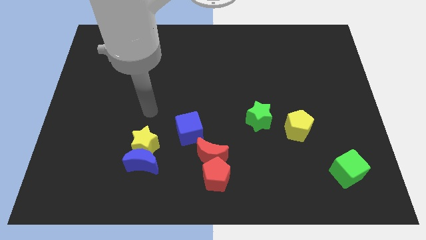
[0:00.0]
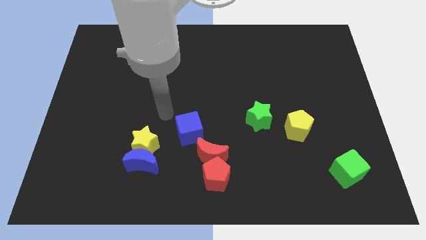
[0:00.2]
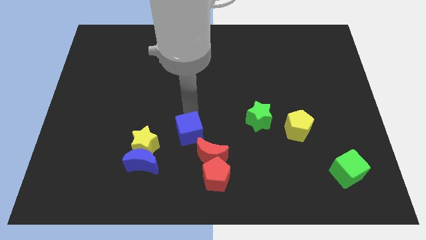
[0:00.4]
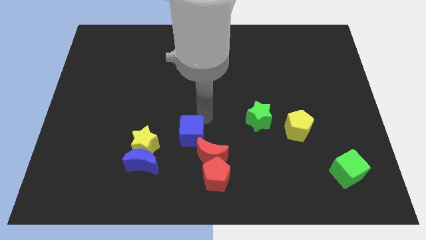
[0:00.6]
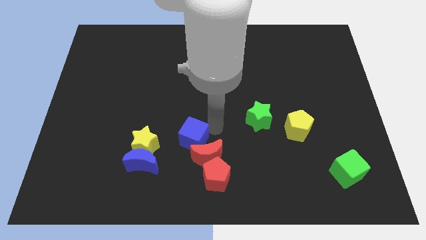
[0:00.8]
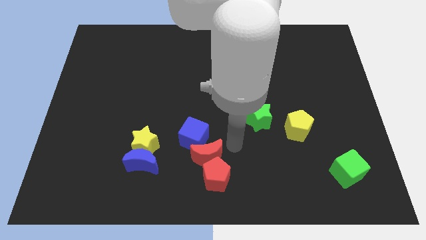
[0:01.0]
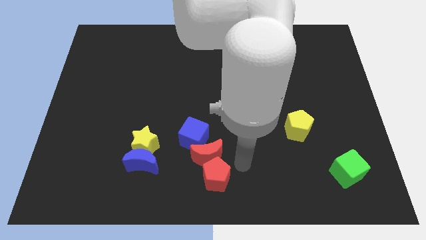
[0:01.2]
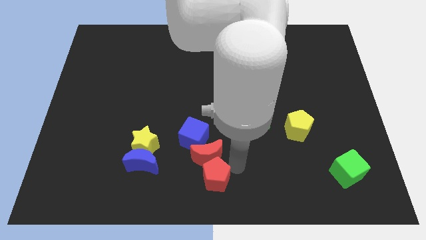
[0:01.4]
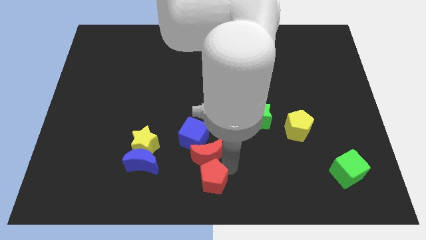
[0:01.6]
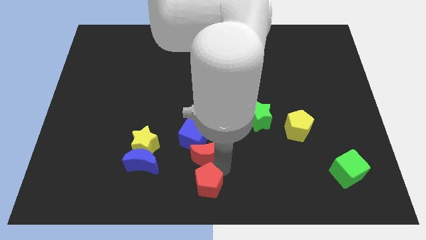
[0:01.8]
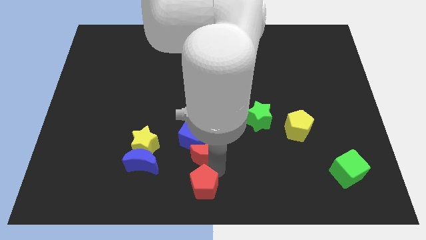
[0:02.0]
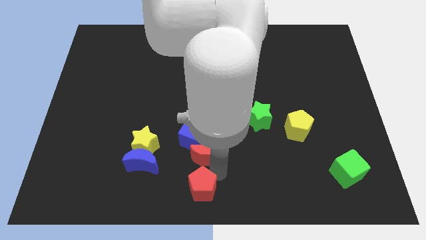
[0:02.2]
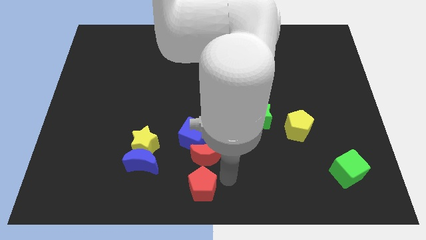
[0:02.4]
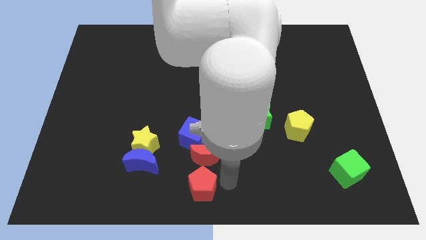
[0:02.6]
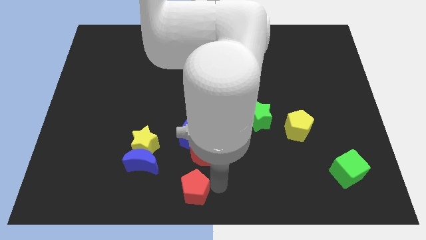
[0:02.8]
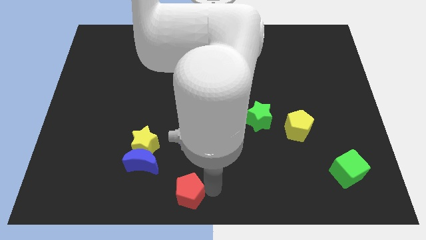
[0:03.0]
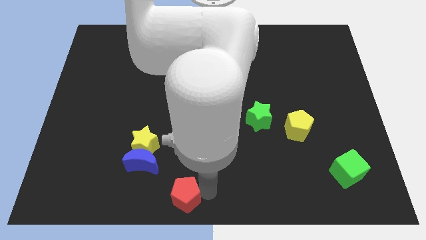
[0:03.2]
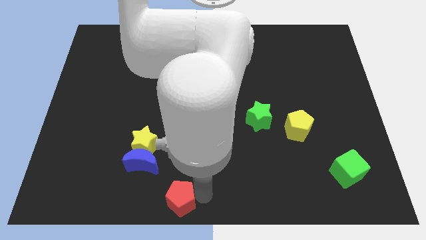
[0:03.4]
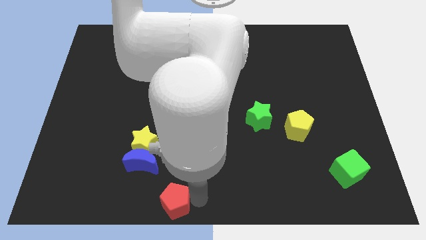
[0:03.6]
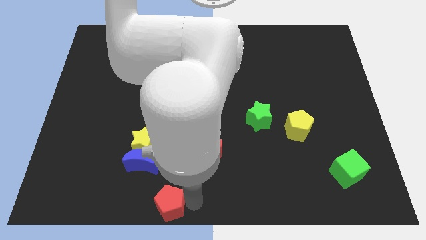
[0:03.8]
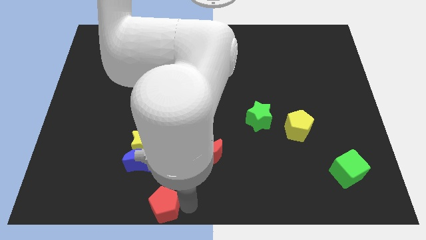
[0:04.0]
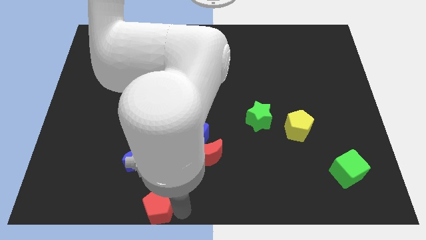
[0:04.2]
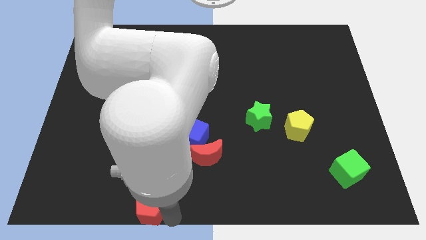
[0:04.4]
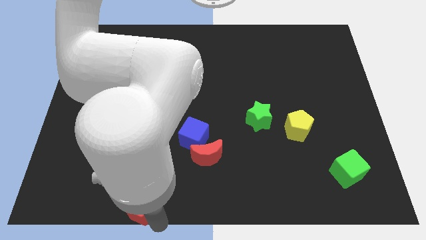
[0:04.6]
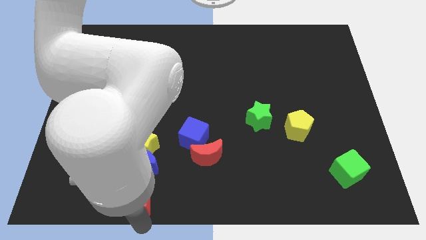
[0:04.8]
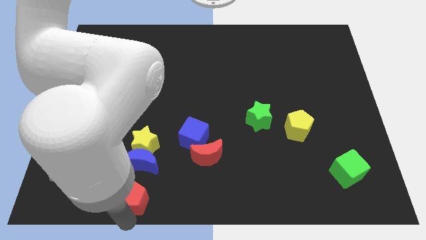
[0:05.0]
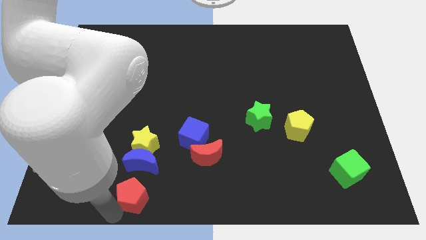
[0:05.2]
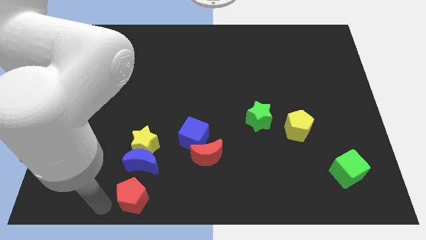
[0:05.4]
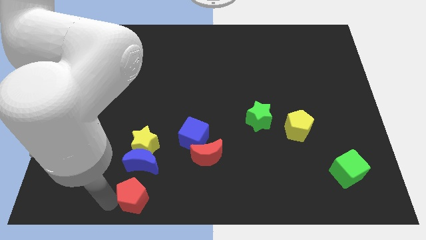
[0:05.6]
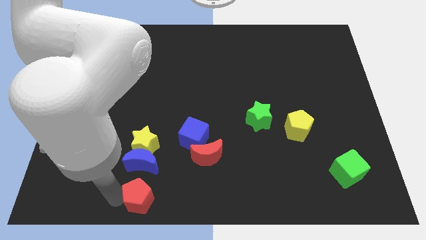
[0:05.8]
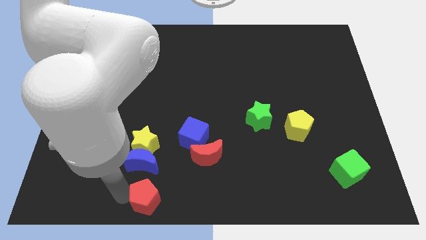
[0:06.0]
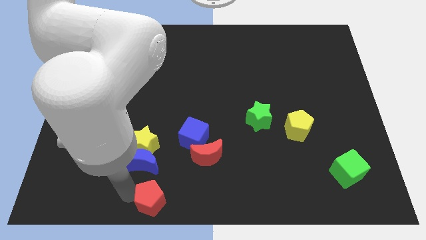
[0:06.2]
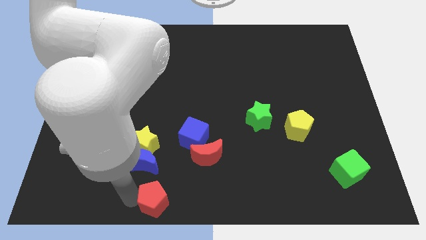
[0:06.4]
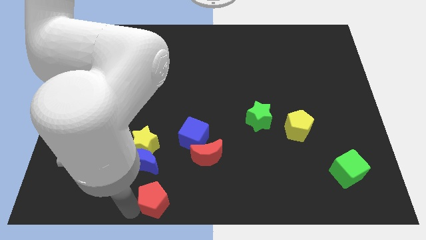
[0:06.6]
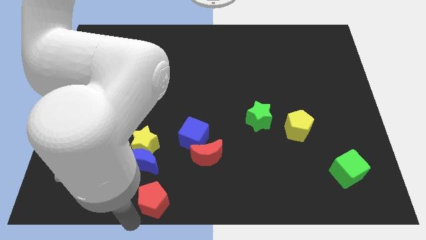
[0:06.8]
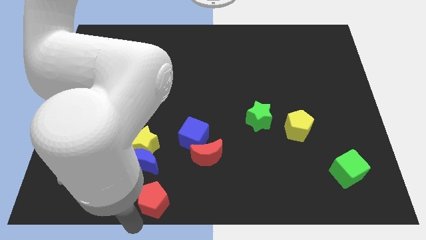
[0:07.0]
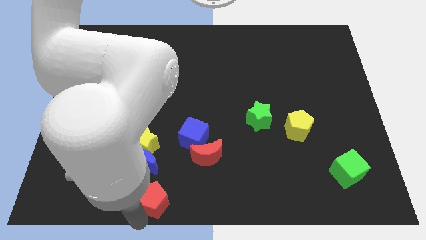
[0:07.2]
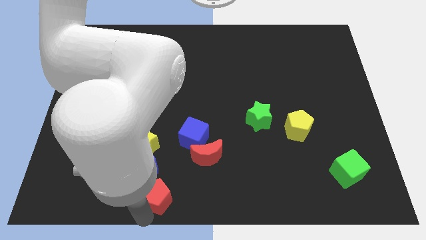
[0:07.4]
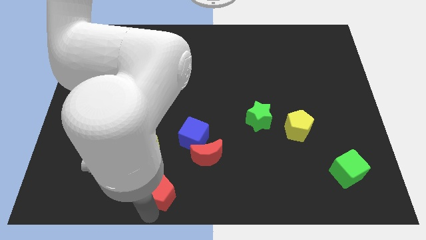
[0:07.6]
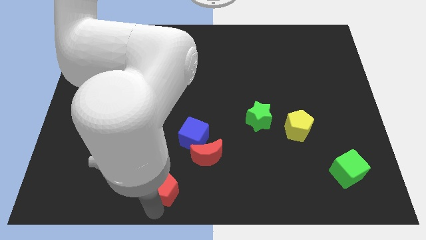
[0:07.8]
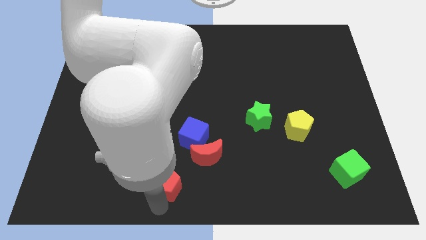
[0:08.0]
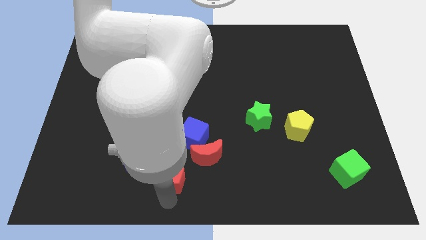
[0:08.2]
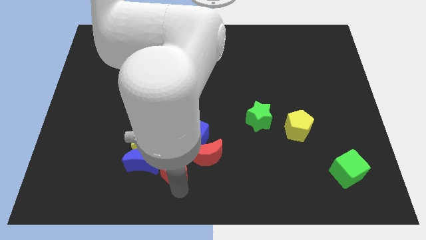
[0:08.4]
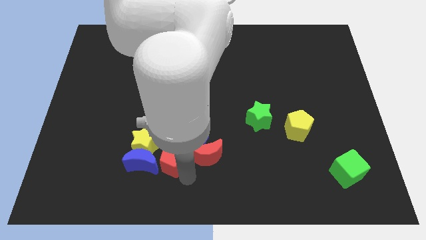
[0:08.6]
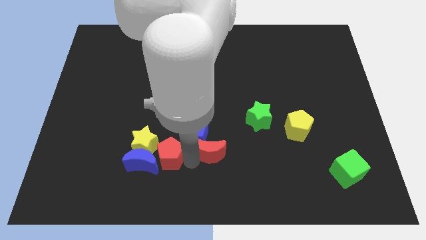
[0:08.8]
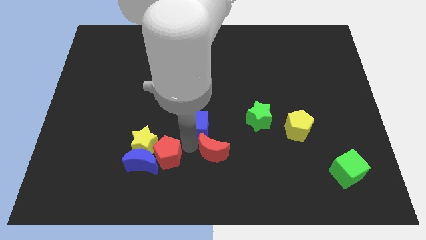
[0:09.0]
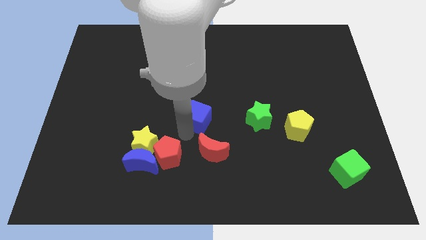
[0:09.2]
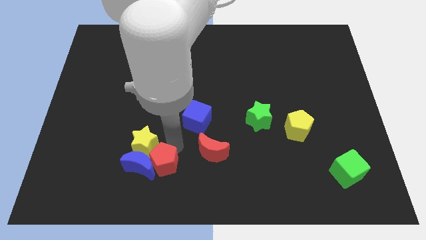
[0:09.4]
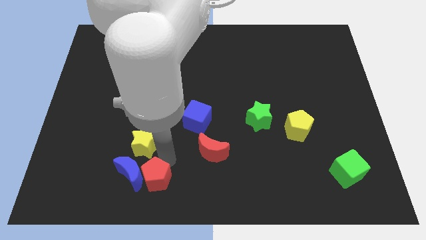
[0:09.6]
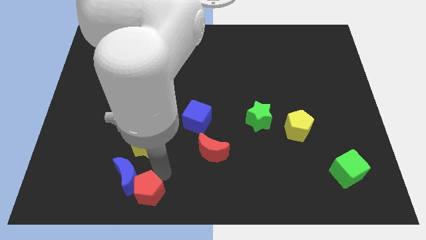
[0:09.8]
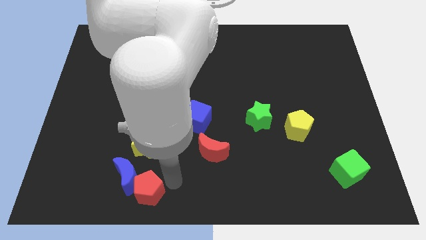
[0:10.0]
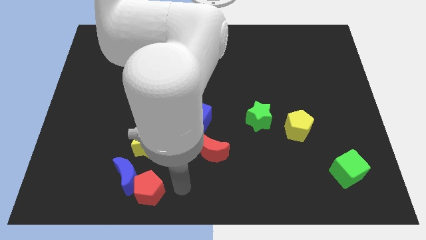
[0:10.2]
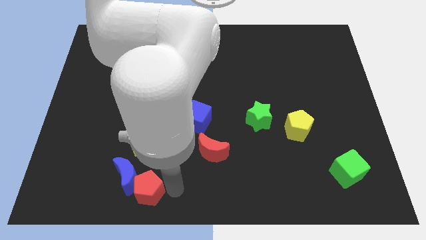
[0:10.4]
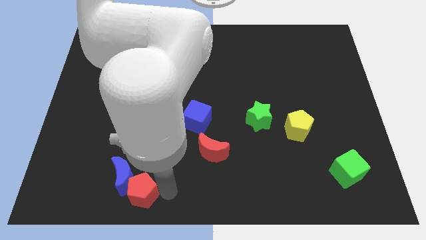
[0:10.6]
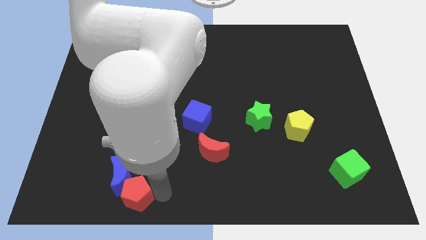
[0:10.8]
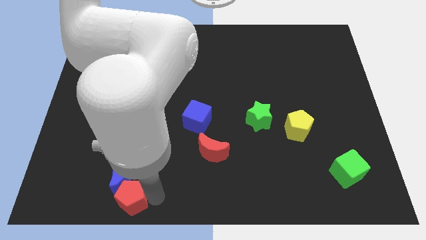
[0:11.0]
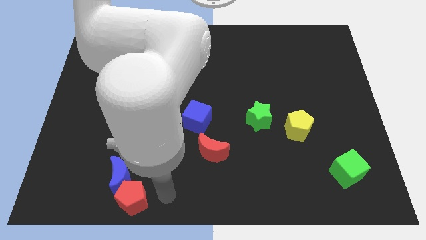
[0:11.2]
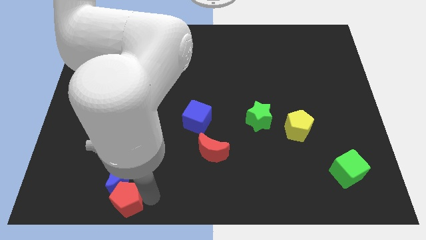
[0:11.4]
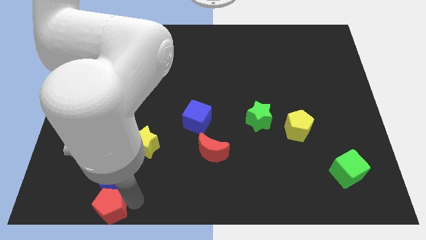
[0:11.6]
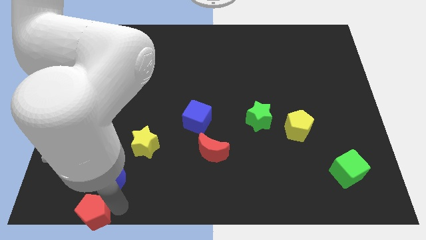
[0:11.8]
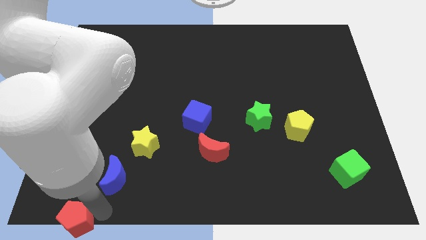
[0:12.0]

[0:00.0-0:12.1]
put the red pentagon to the bottom left of the board
